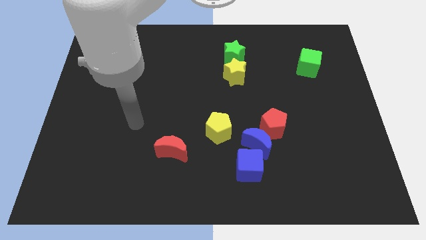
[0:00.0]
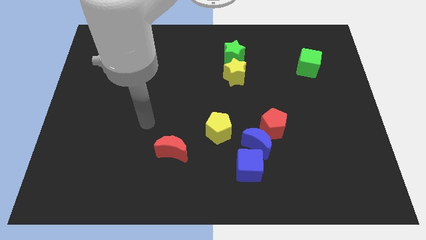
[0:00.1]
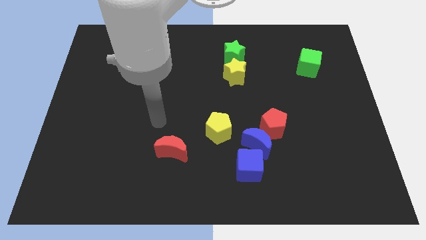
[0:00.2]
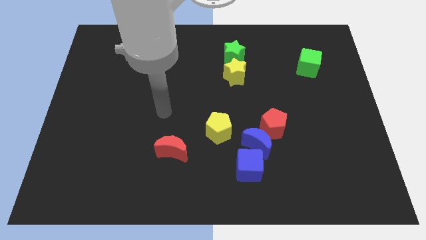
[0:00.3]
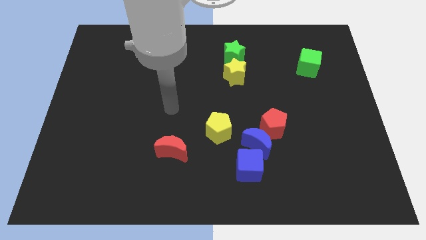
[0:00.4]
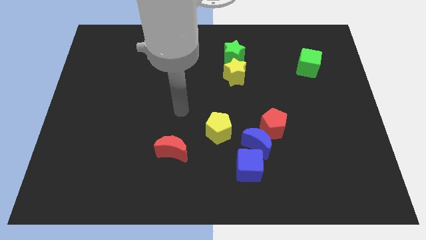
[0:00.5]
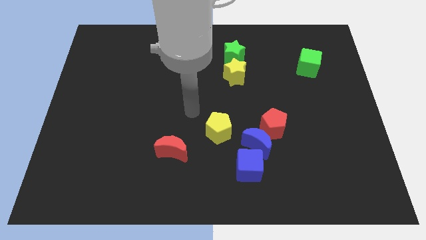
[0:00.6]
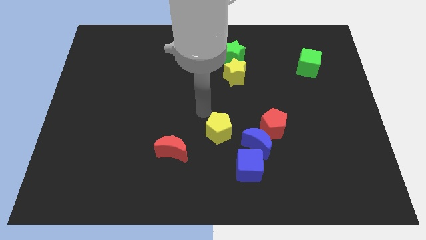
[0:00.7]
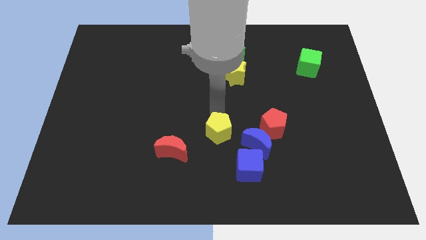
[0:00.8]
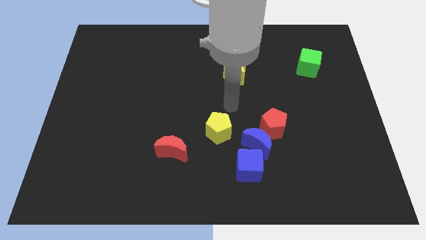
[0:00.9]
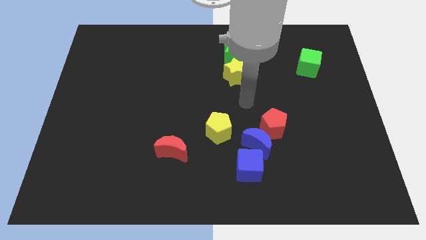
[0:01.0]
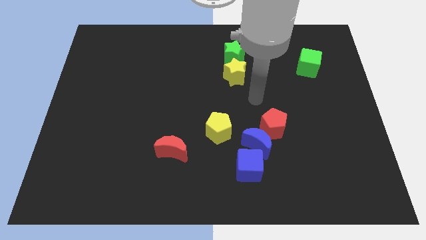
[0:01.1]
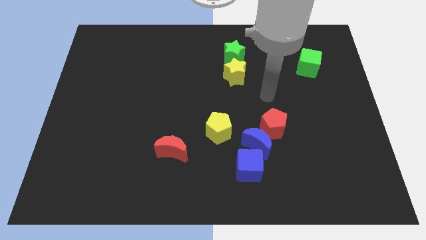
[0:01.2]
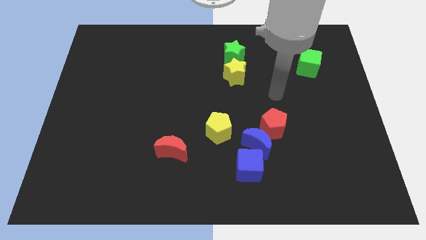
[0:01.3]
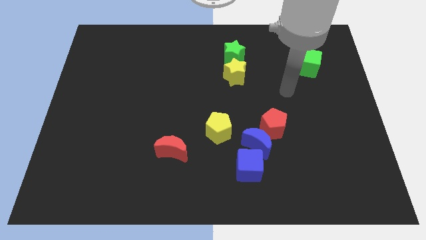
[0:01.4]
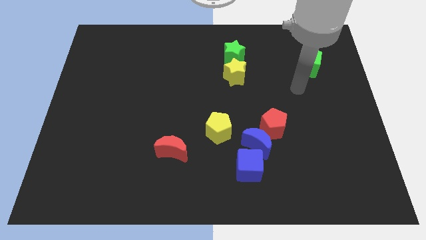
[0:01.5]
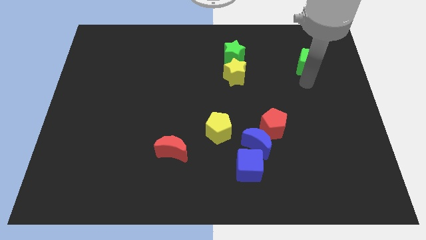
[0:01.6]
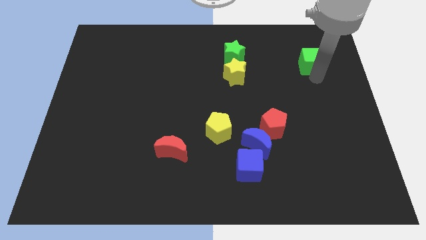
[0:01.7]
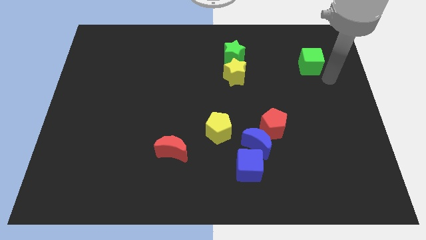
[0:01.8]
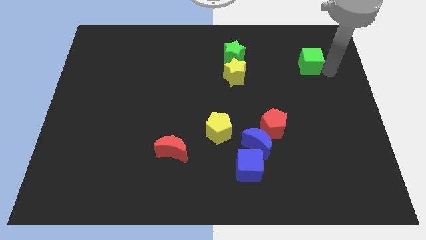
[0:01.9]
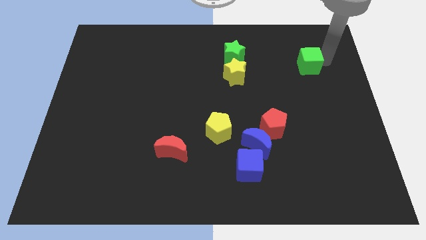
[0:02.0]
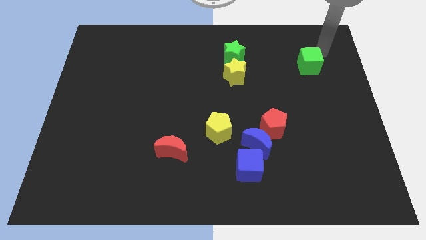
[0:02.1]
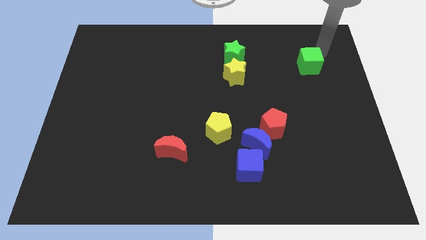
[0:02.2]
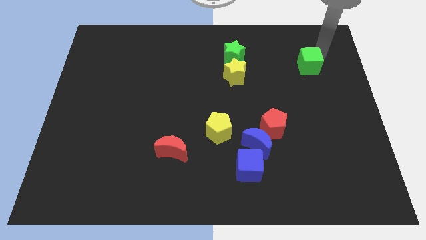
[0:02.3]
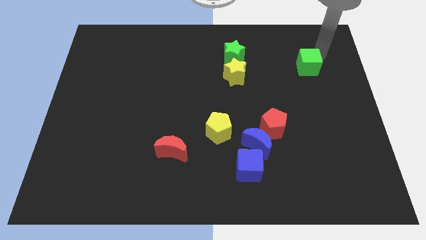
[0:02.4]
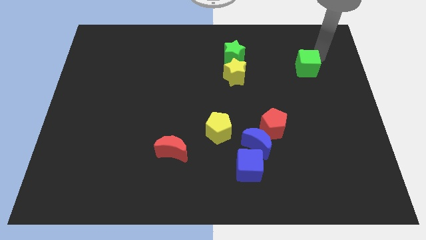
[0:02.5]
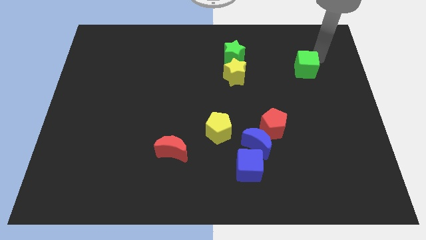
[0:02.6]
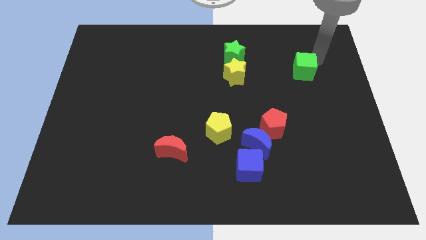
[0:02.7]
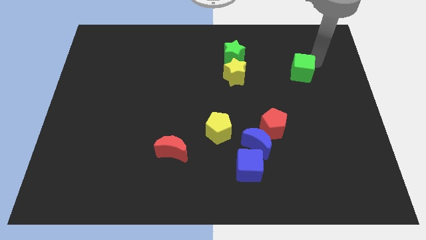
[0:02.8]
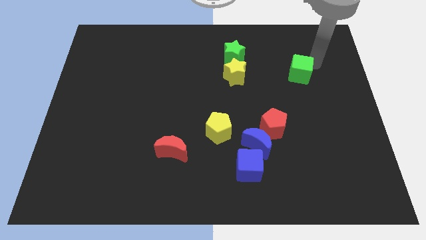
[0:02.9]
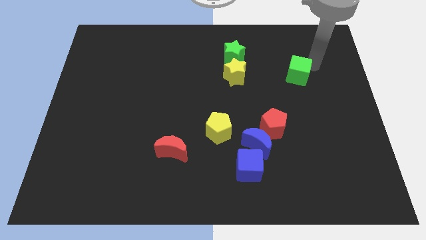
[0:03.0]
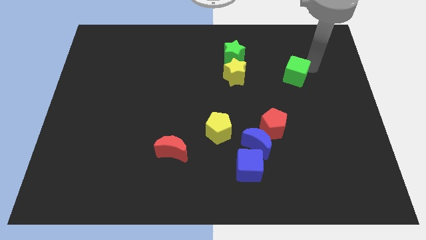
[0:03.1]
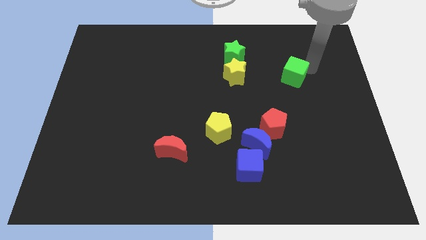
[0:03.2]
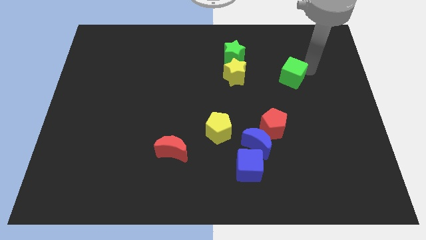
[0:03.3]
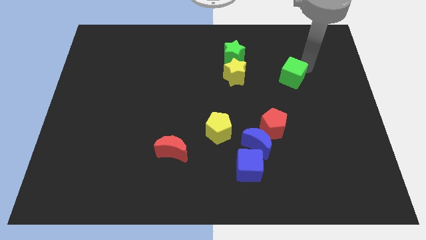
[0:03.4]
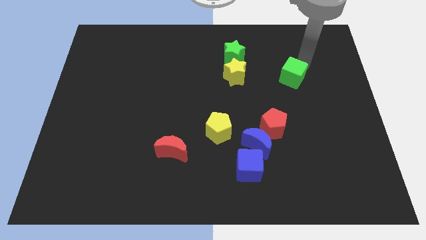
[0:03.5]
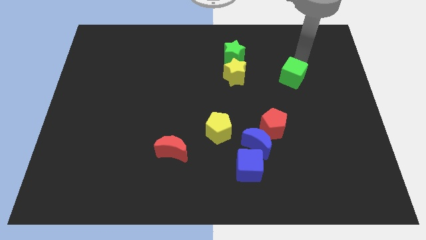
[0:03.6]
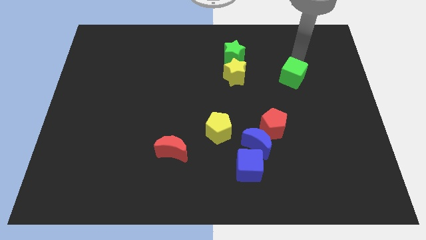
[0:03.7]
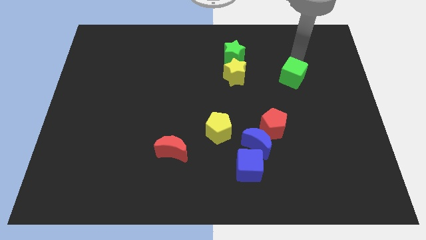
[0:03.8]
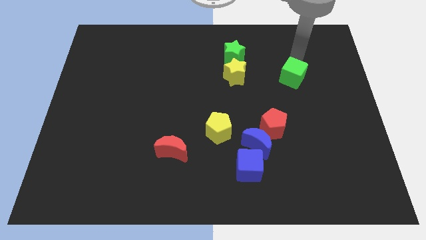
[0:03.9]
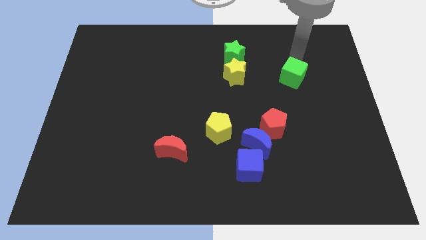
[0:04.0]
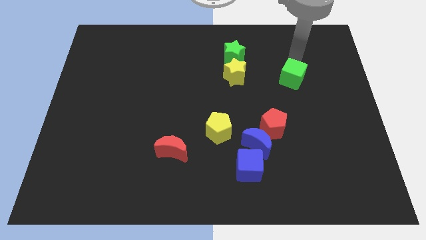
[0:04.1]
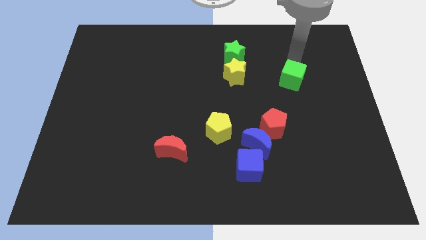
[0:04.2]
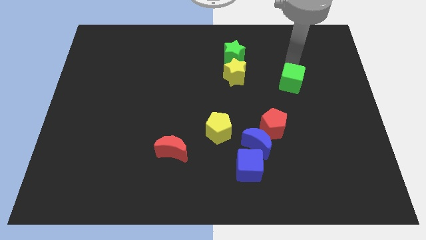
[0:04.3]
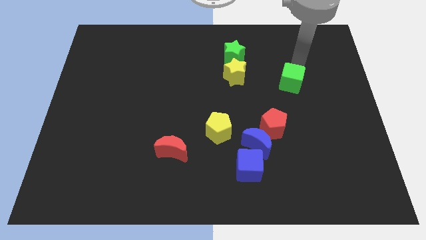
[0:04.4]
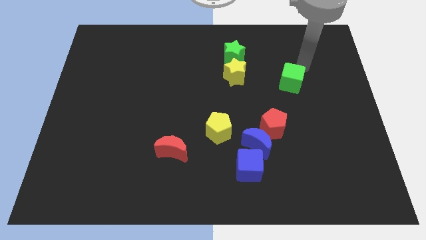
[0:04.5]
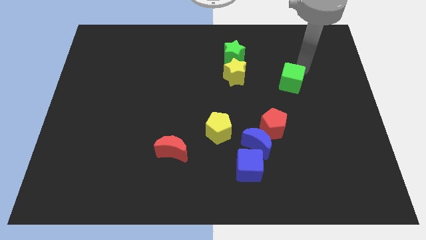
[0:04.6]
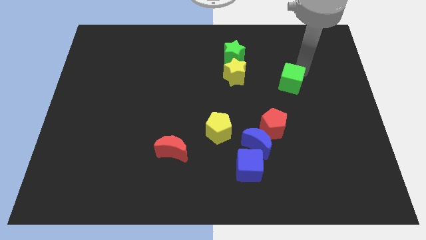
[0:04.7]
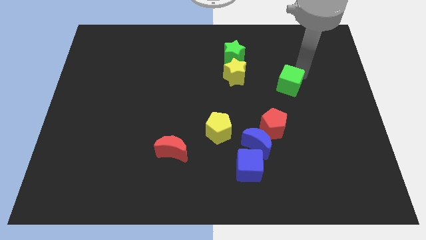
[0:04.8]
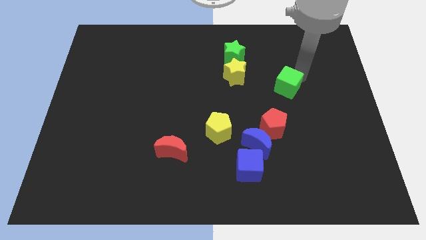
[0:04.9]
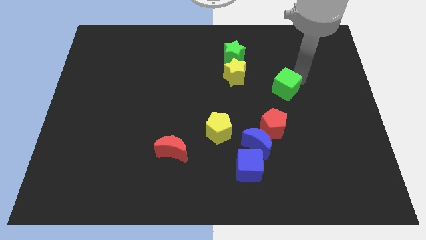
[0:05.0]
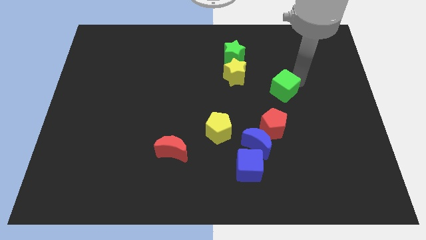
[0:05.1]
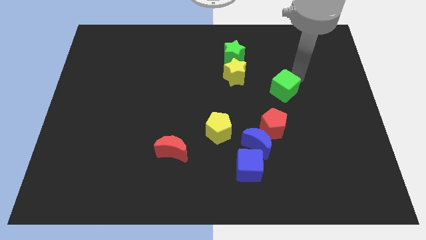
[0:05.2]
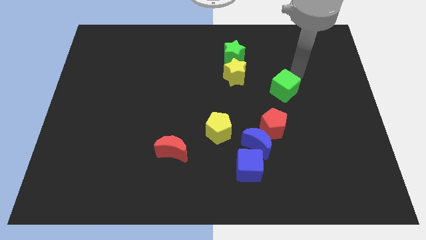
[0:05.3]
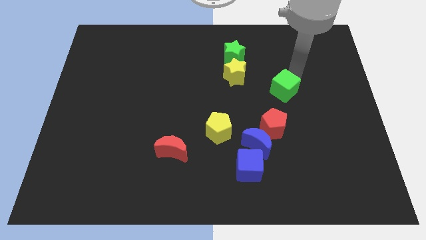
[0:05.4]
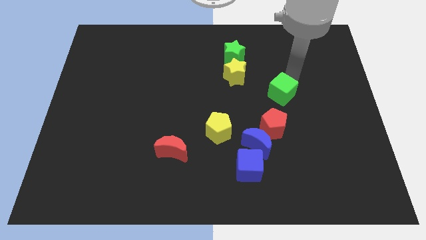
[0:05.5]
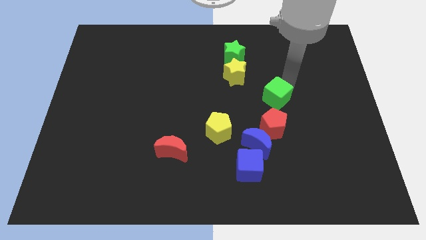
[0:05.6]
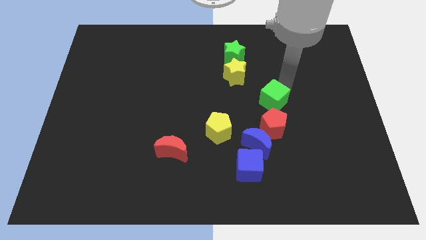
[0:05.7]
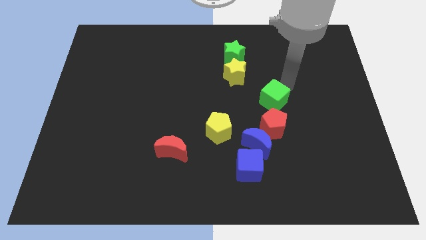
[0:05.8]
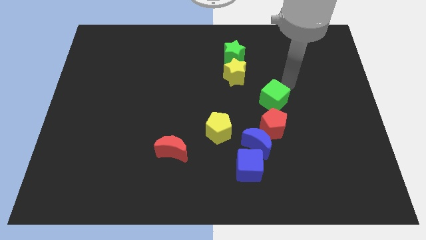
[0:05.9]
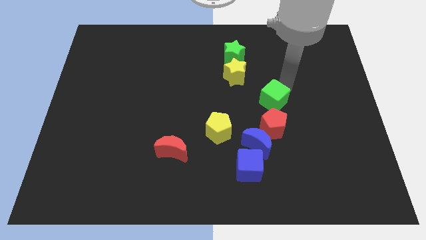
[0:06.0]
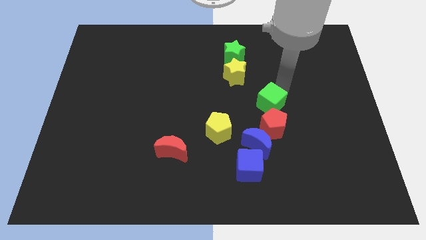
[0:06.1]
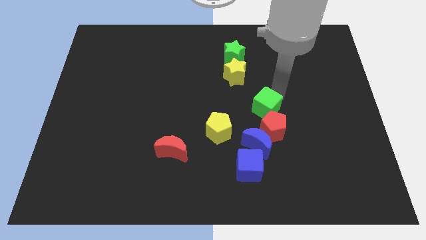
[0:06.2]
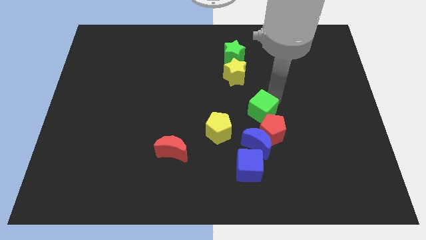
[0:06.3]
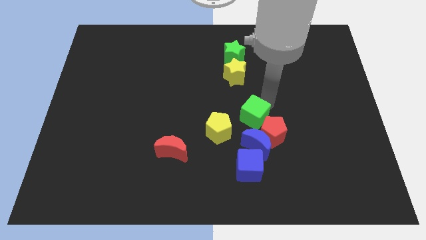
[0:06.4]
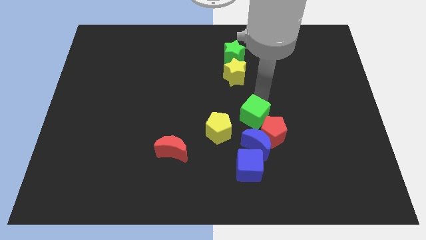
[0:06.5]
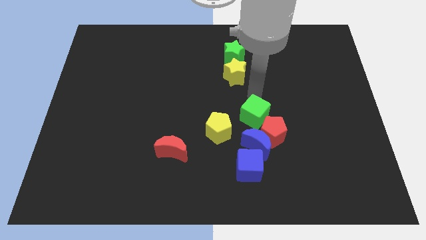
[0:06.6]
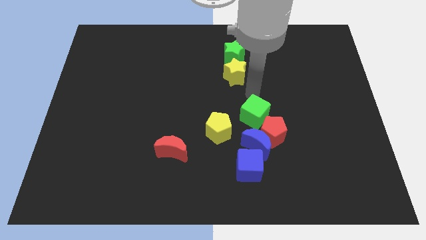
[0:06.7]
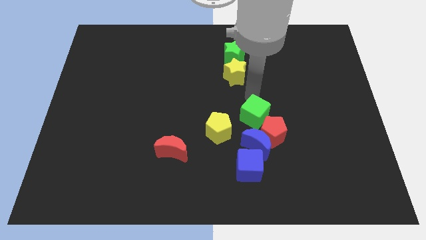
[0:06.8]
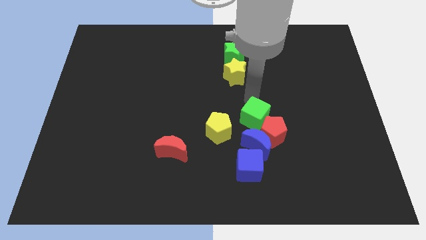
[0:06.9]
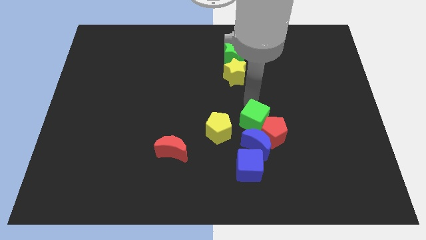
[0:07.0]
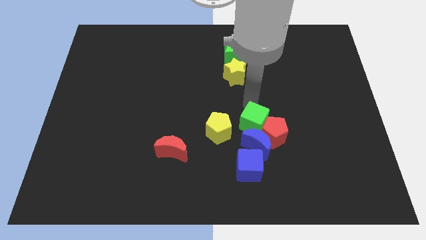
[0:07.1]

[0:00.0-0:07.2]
move the green cube towards the blue moon
